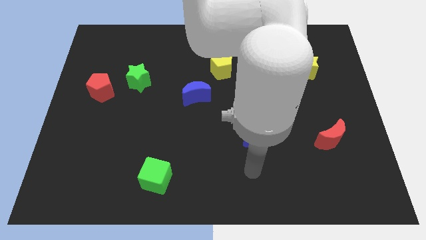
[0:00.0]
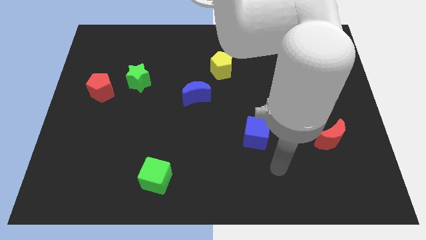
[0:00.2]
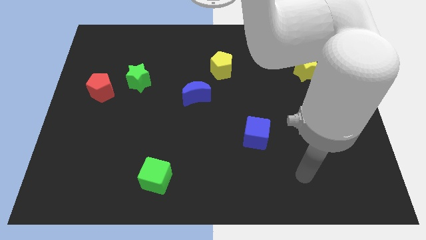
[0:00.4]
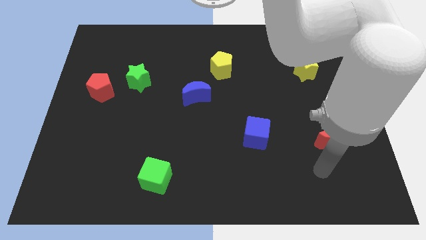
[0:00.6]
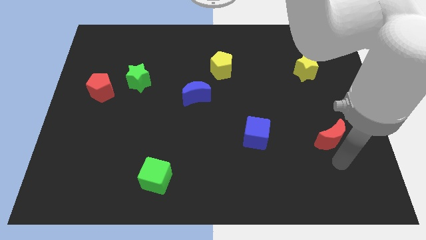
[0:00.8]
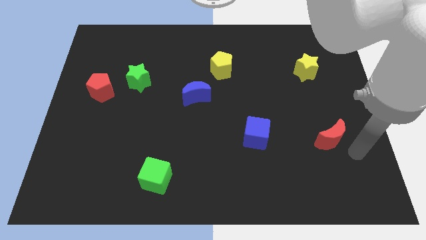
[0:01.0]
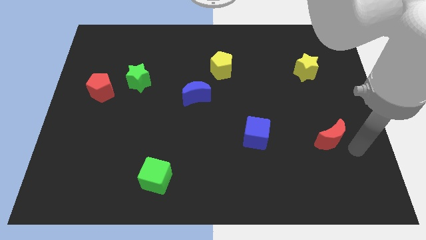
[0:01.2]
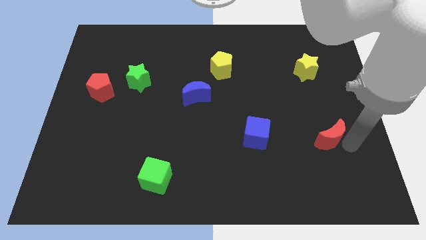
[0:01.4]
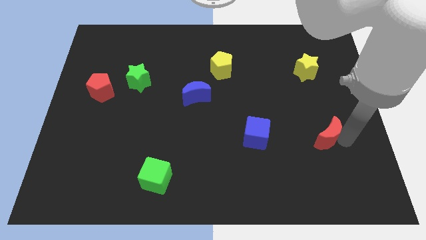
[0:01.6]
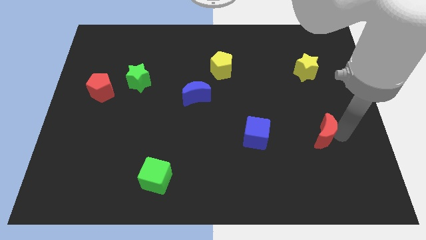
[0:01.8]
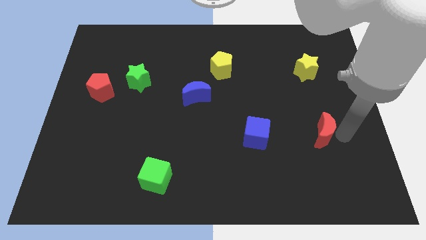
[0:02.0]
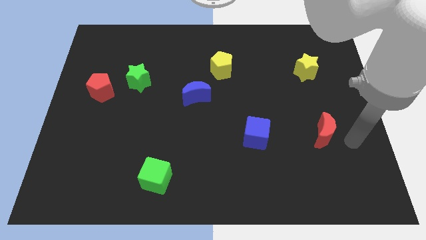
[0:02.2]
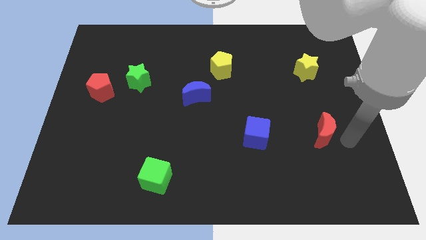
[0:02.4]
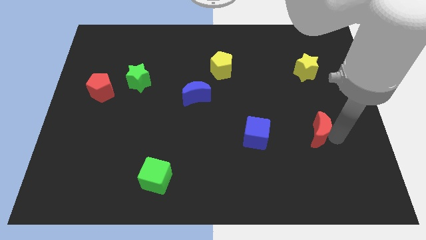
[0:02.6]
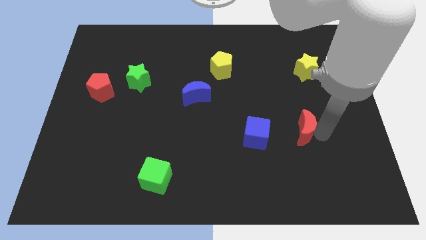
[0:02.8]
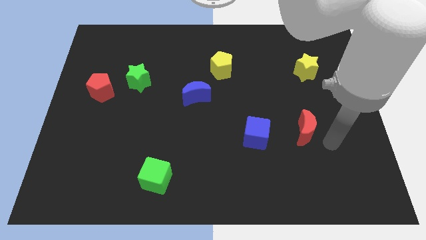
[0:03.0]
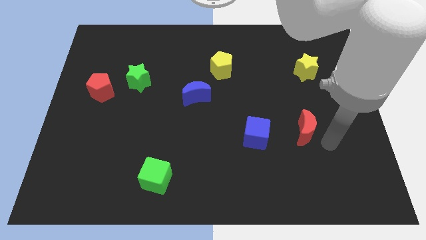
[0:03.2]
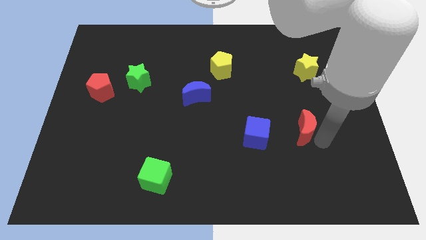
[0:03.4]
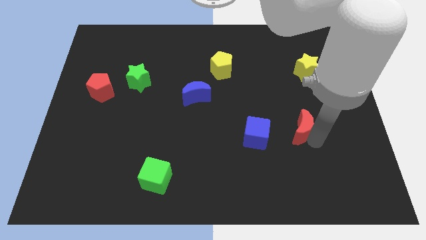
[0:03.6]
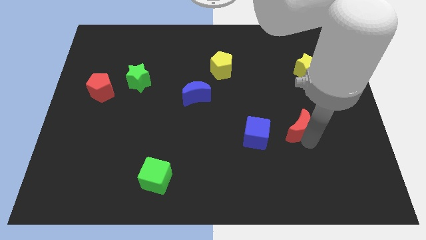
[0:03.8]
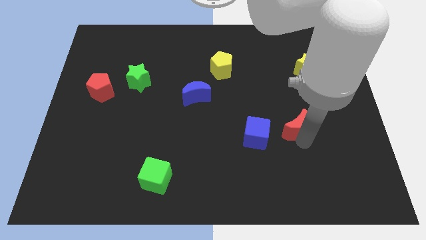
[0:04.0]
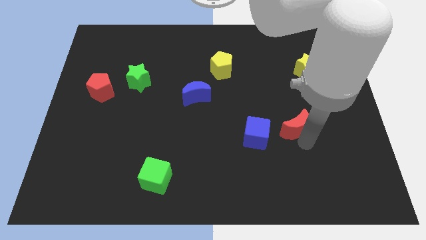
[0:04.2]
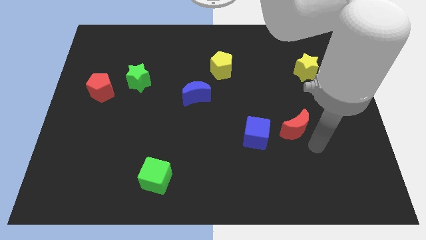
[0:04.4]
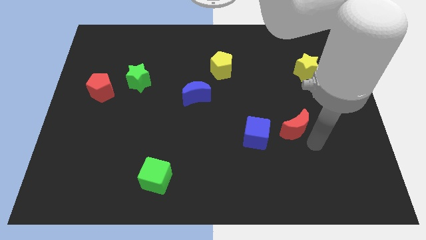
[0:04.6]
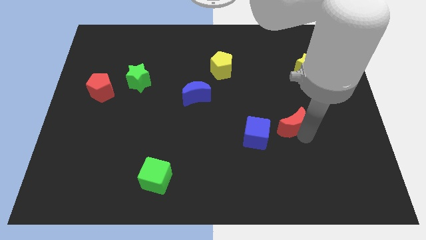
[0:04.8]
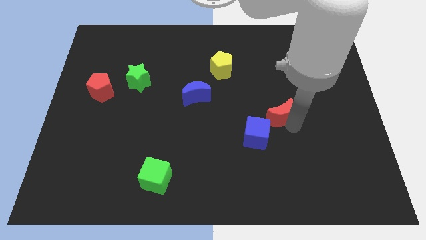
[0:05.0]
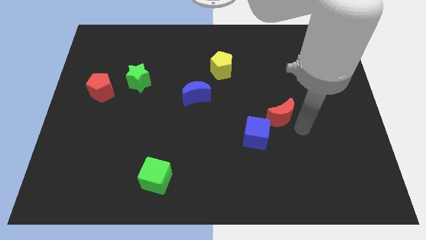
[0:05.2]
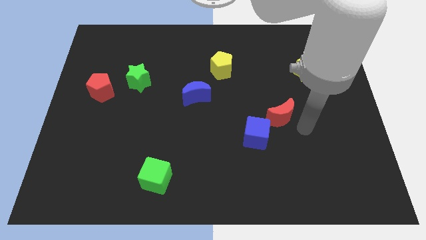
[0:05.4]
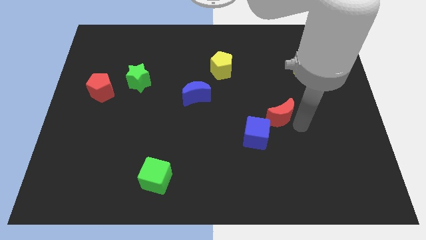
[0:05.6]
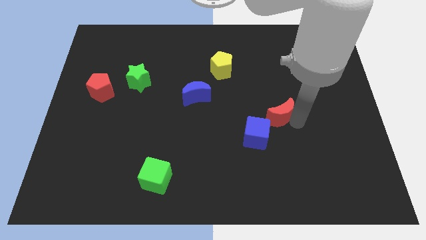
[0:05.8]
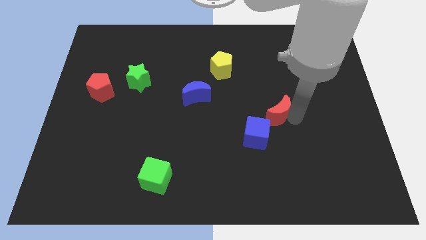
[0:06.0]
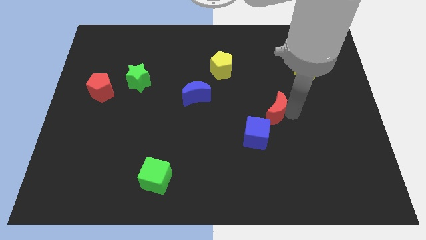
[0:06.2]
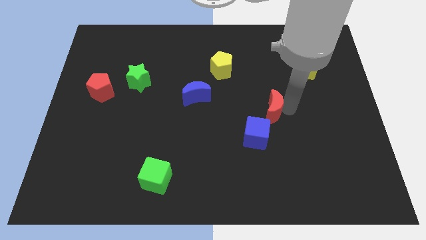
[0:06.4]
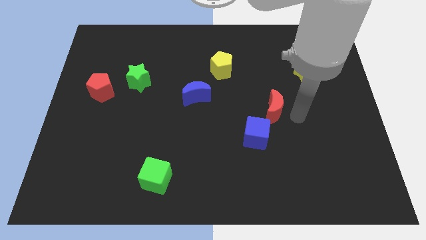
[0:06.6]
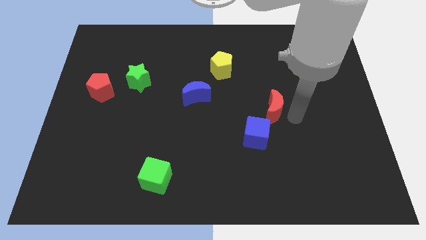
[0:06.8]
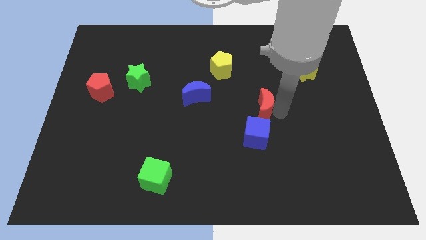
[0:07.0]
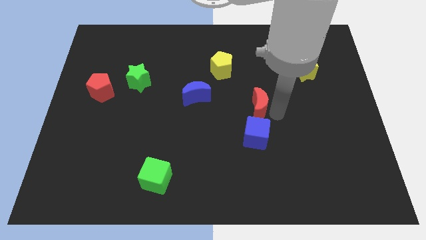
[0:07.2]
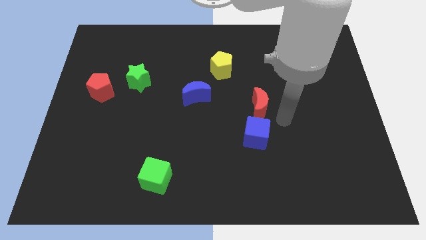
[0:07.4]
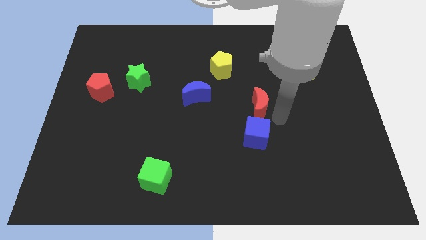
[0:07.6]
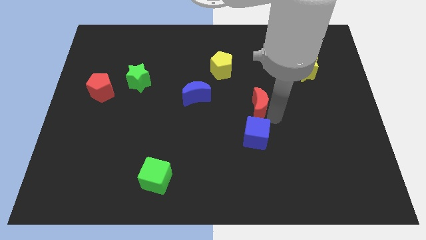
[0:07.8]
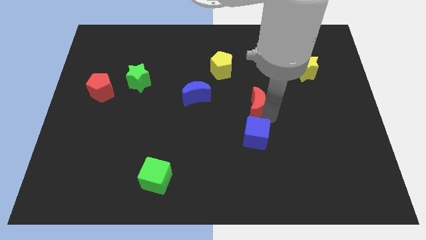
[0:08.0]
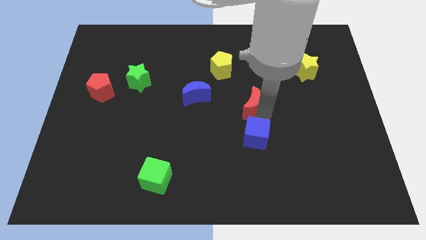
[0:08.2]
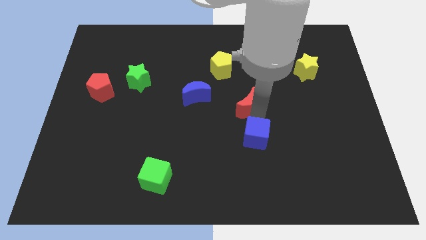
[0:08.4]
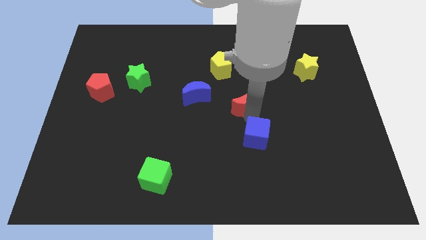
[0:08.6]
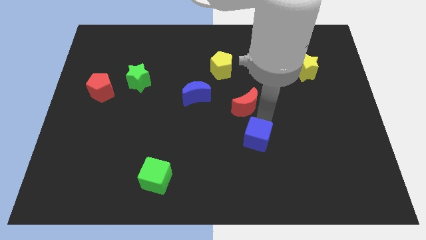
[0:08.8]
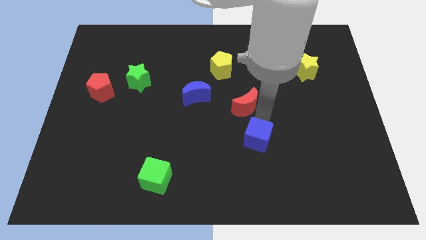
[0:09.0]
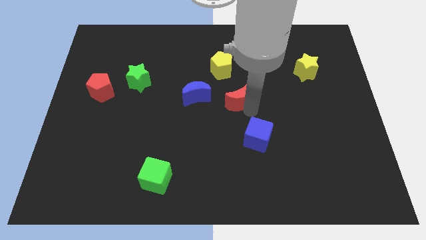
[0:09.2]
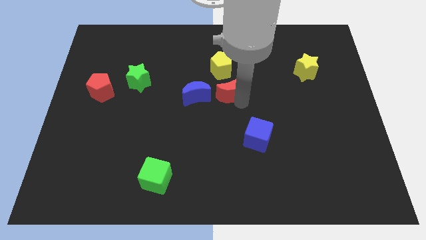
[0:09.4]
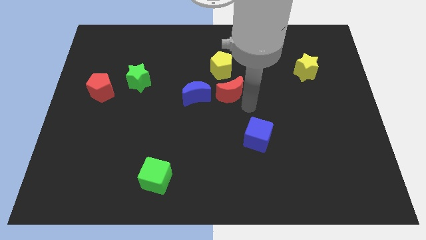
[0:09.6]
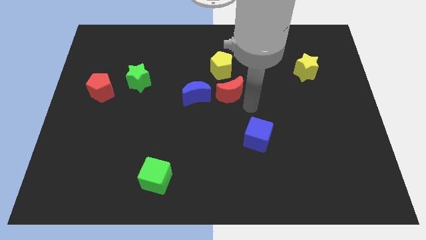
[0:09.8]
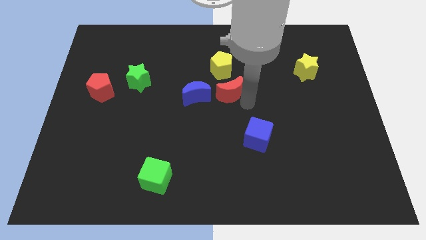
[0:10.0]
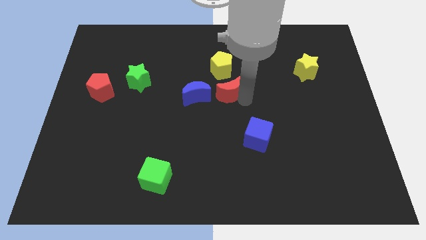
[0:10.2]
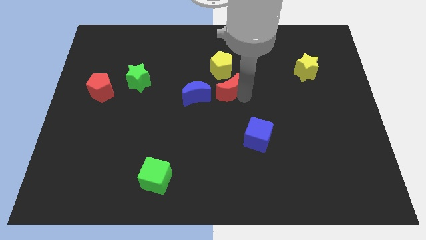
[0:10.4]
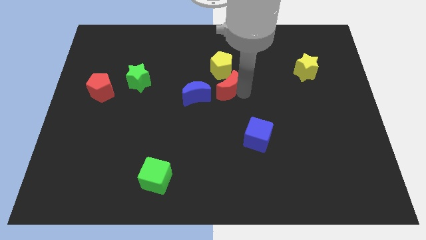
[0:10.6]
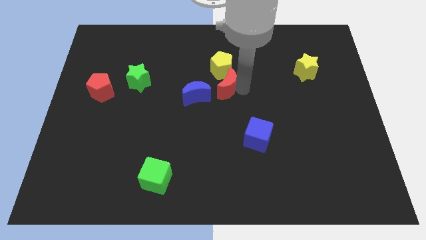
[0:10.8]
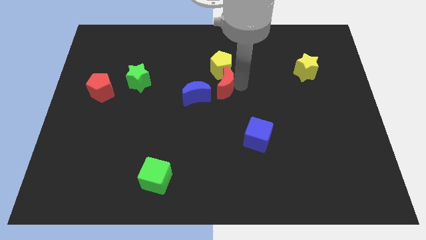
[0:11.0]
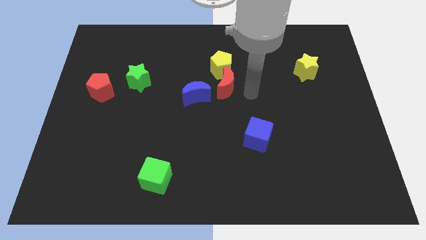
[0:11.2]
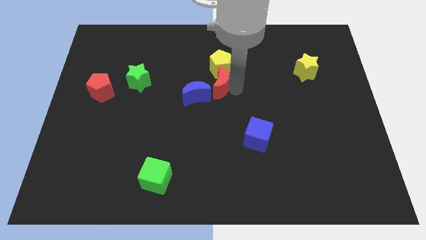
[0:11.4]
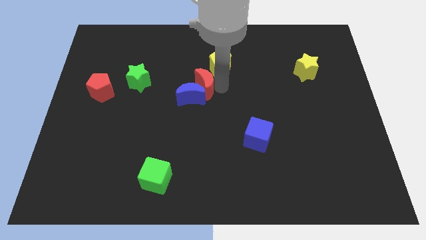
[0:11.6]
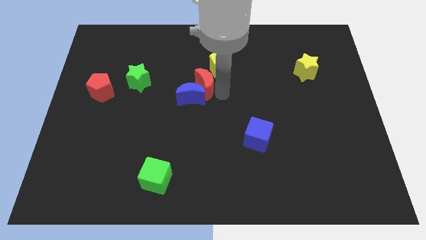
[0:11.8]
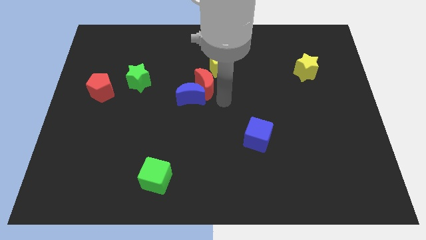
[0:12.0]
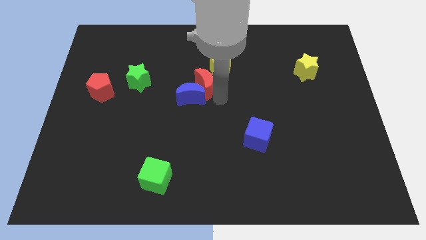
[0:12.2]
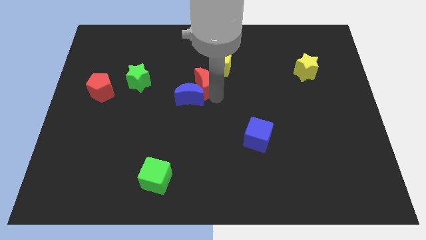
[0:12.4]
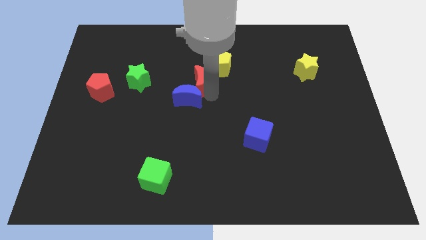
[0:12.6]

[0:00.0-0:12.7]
push the red moon to the right side of the green star

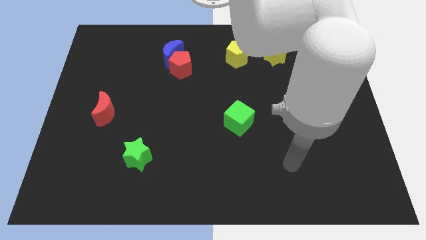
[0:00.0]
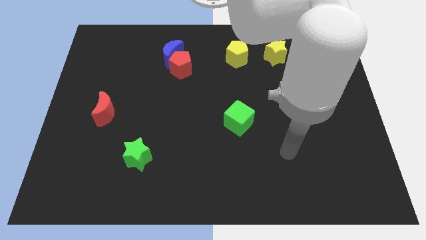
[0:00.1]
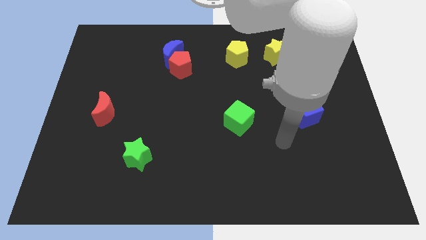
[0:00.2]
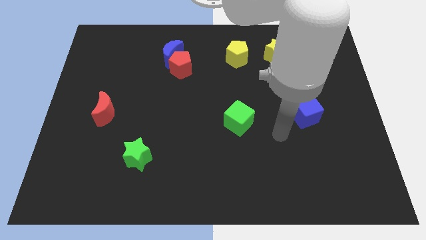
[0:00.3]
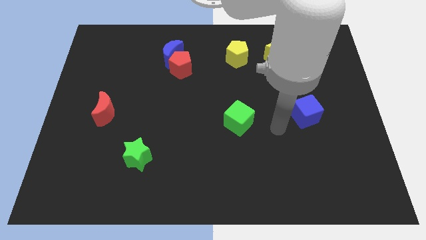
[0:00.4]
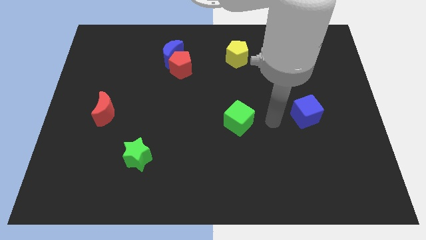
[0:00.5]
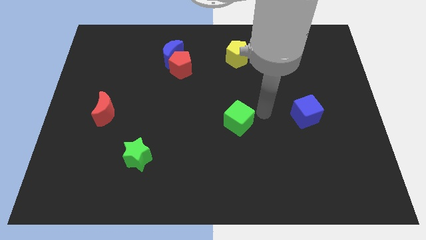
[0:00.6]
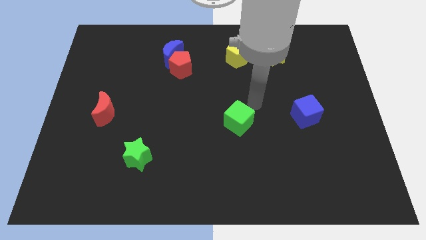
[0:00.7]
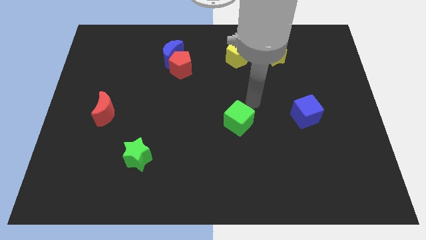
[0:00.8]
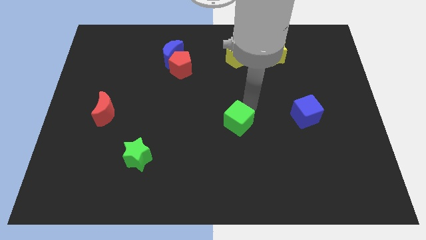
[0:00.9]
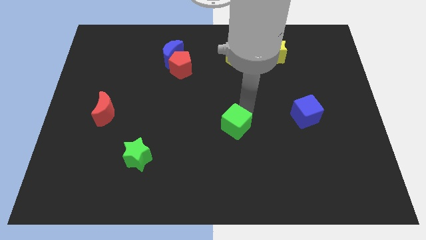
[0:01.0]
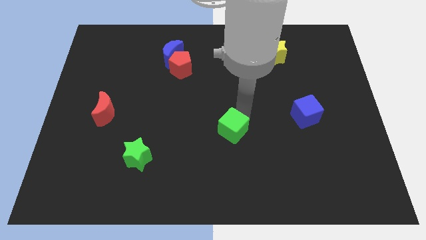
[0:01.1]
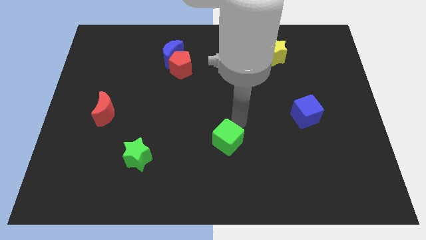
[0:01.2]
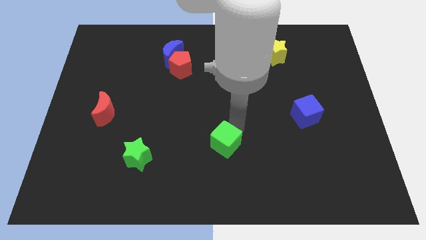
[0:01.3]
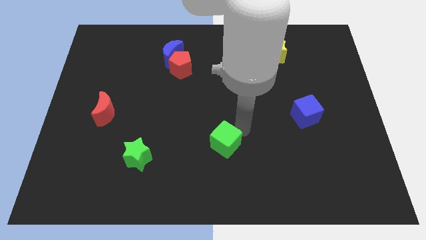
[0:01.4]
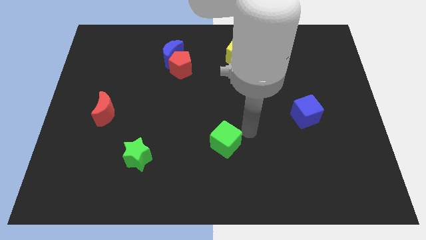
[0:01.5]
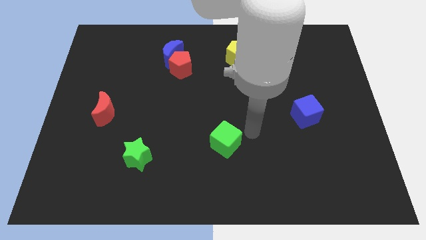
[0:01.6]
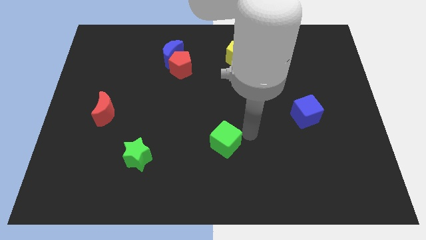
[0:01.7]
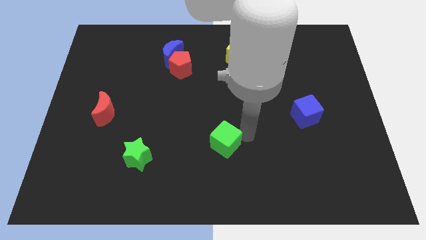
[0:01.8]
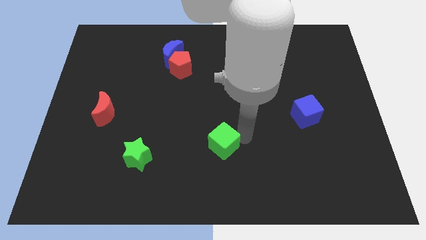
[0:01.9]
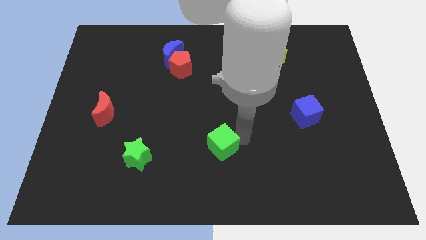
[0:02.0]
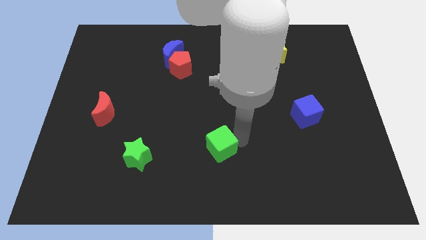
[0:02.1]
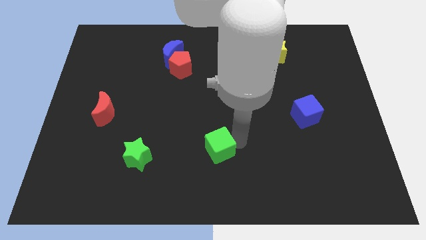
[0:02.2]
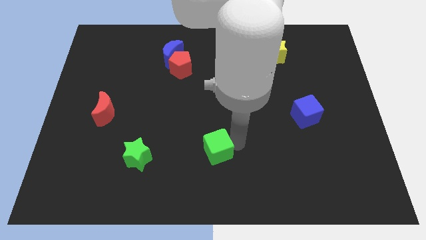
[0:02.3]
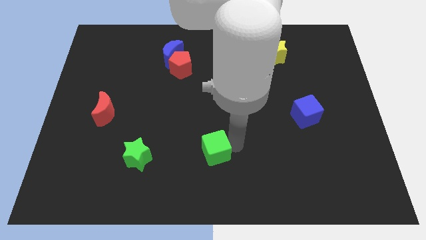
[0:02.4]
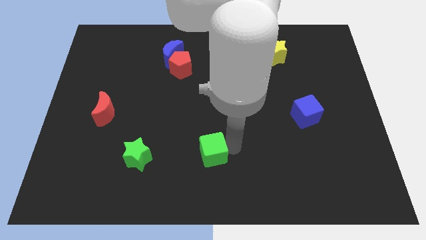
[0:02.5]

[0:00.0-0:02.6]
slide the green cube just right of the green star
